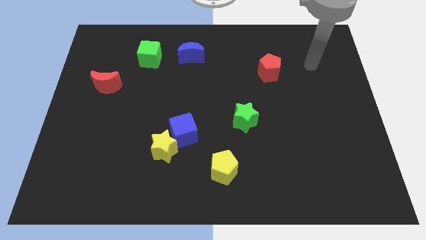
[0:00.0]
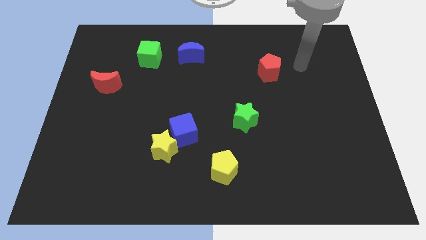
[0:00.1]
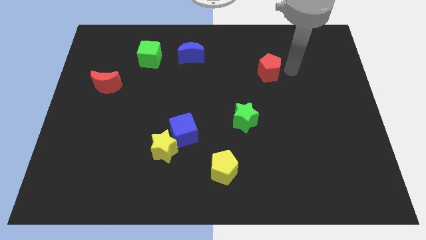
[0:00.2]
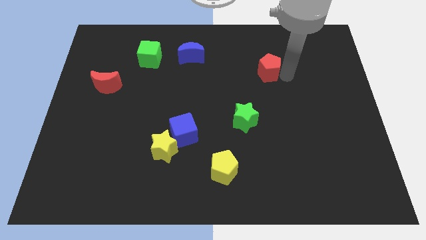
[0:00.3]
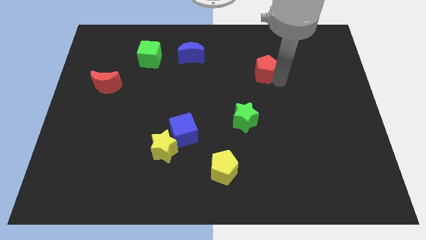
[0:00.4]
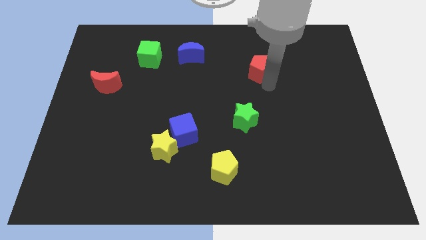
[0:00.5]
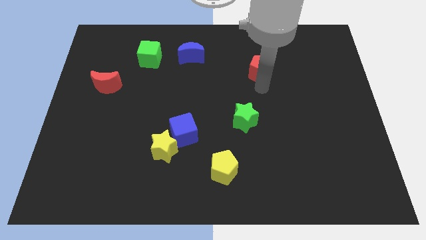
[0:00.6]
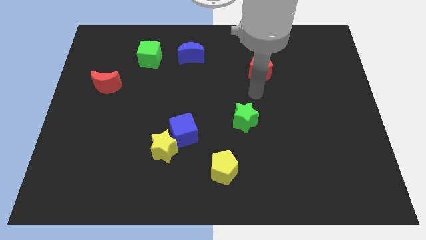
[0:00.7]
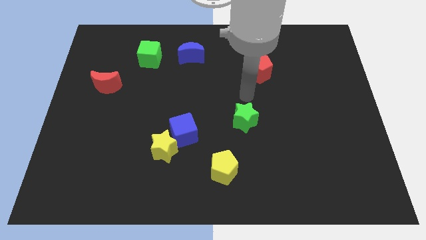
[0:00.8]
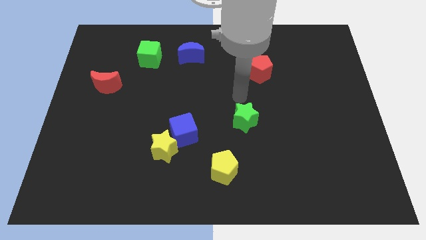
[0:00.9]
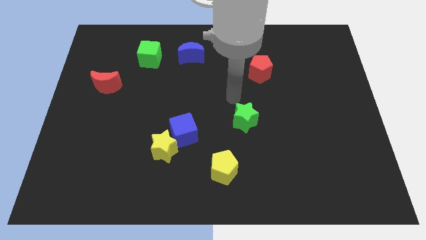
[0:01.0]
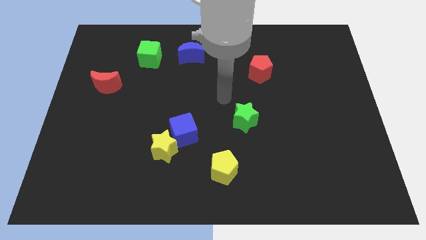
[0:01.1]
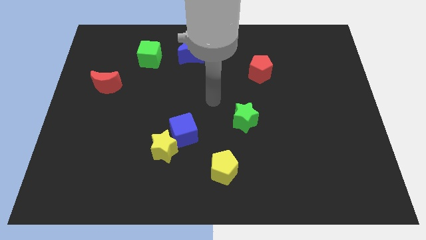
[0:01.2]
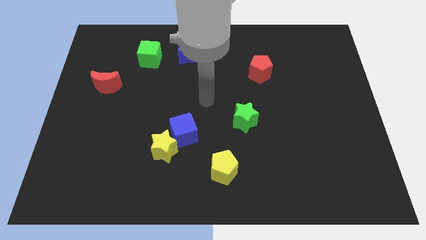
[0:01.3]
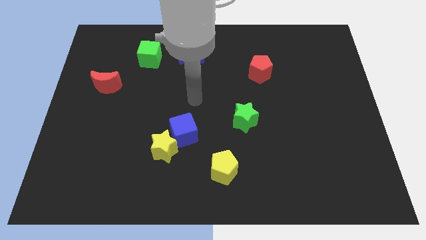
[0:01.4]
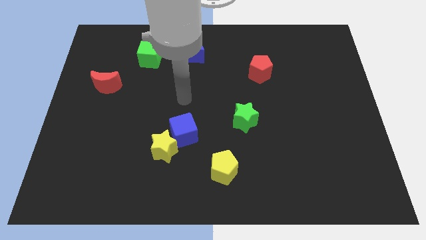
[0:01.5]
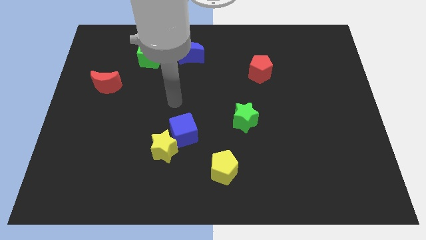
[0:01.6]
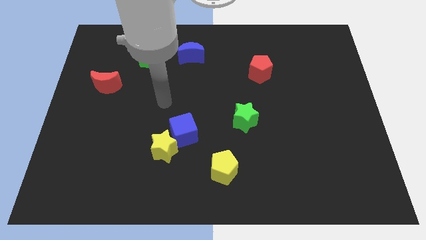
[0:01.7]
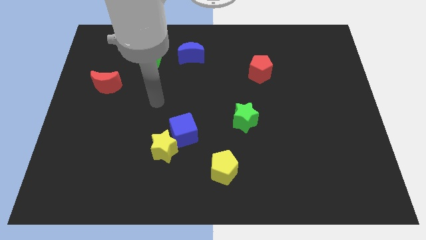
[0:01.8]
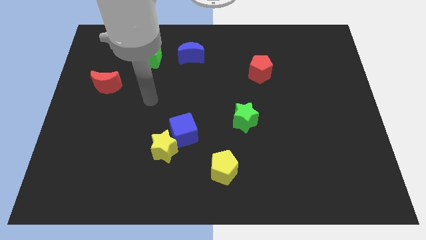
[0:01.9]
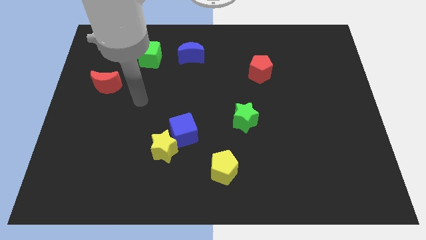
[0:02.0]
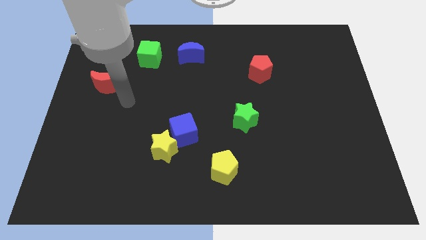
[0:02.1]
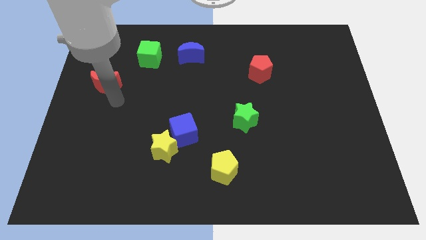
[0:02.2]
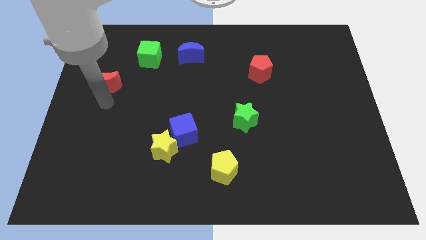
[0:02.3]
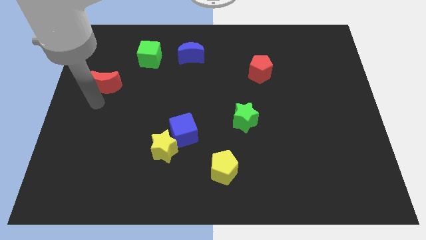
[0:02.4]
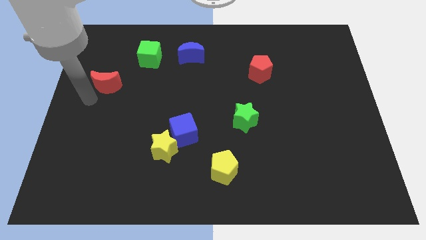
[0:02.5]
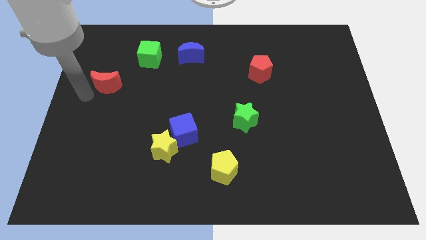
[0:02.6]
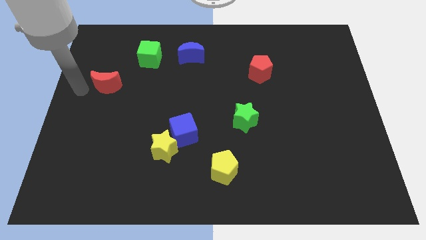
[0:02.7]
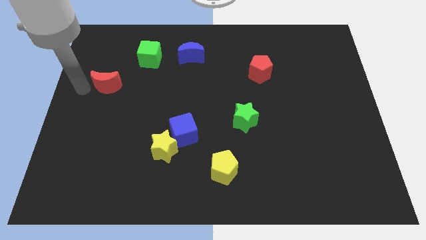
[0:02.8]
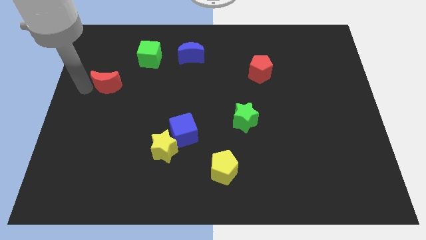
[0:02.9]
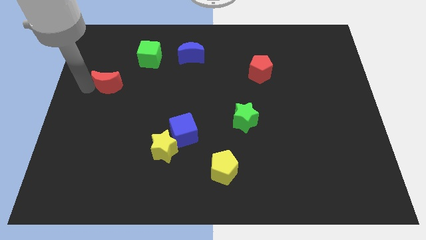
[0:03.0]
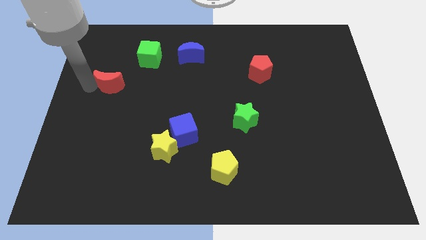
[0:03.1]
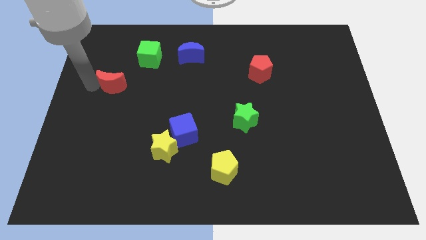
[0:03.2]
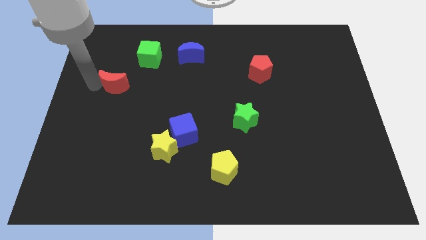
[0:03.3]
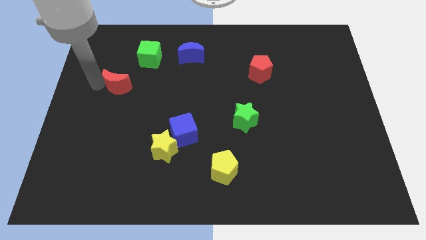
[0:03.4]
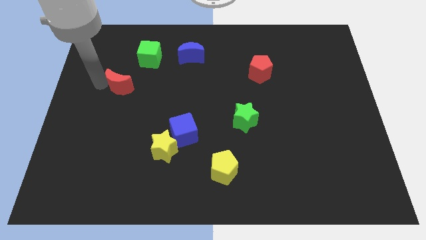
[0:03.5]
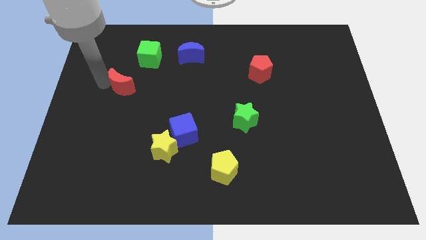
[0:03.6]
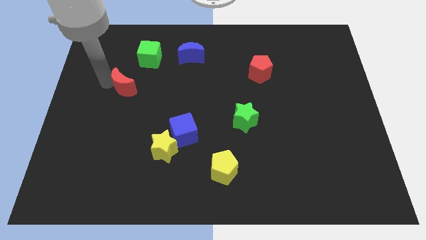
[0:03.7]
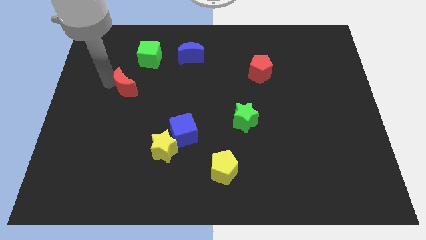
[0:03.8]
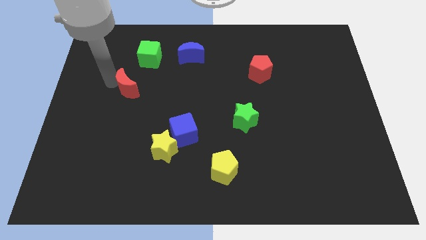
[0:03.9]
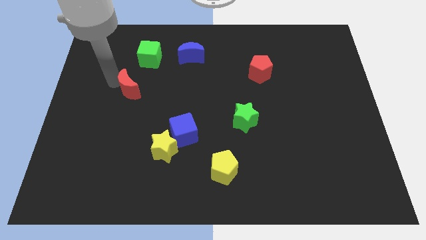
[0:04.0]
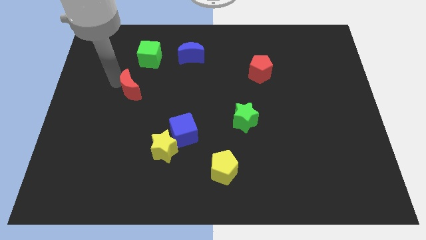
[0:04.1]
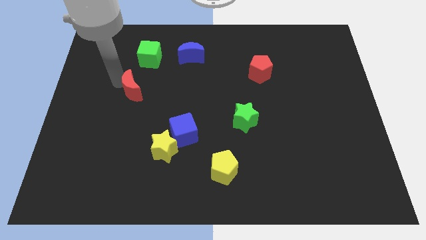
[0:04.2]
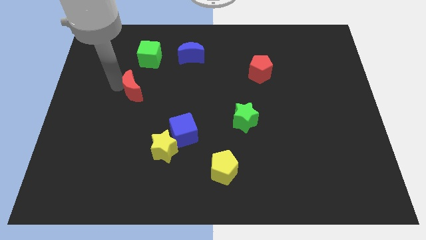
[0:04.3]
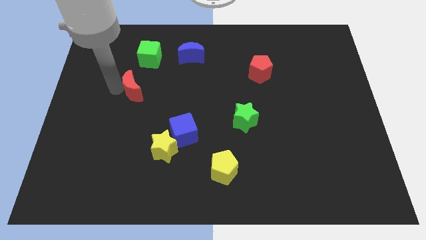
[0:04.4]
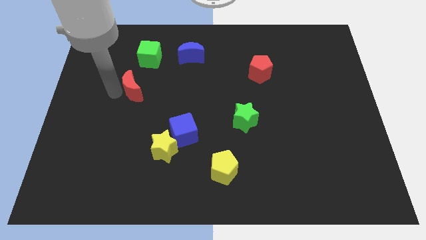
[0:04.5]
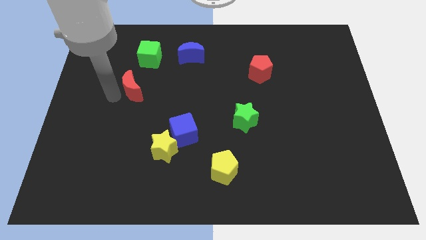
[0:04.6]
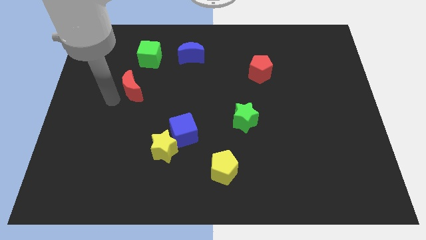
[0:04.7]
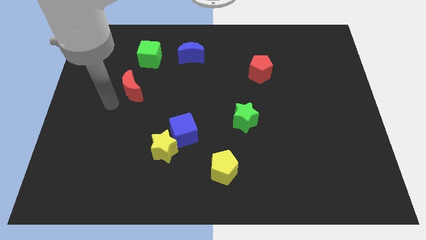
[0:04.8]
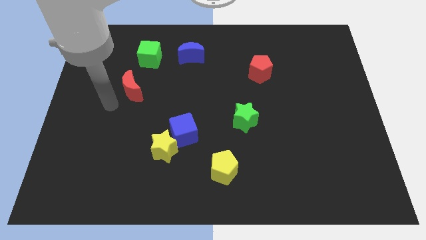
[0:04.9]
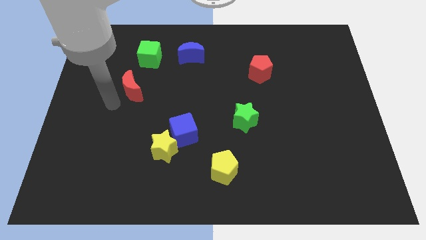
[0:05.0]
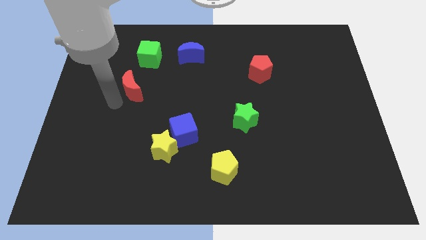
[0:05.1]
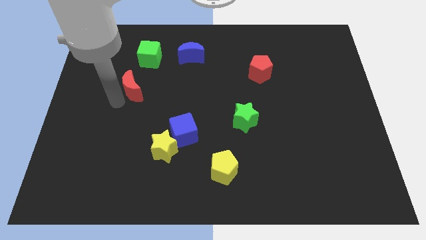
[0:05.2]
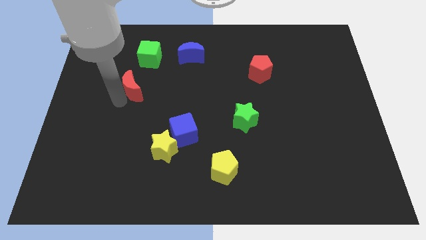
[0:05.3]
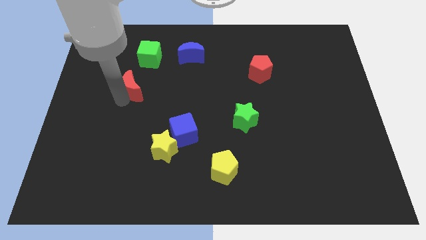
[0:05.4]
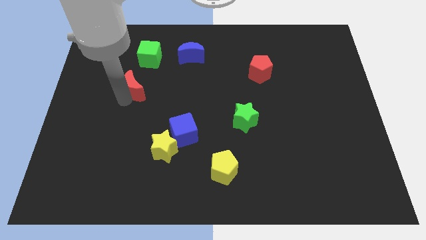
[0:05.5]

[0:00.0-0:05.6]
slide the red moon a little to the right

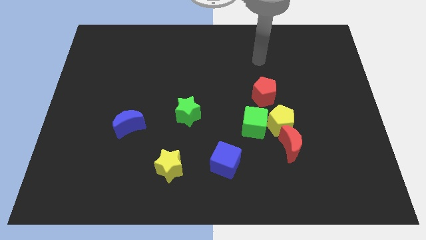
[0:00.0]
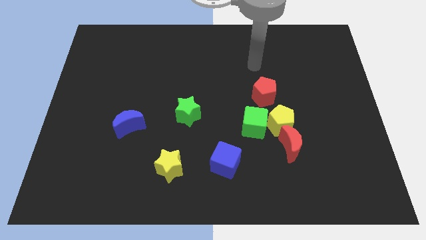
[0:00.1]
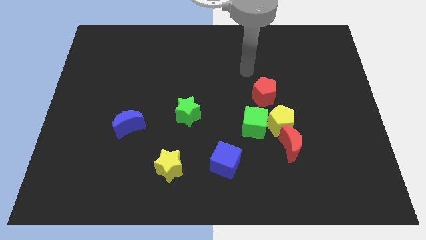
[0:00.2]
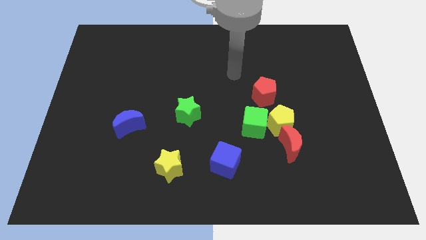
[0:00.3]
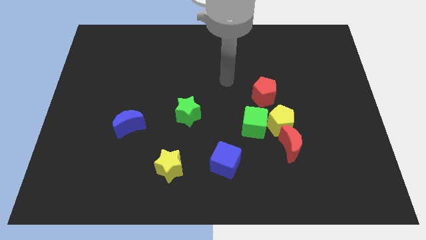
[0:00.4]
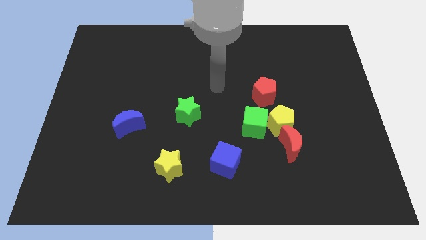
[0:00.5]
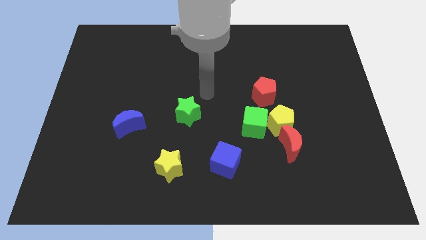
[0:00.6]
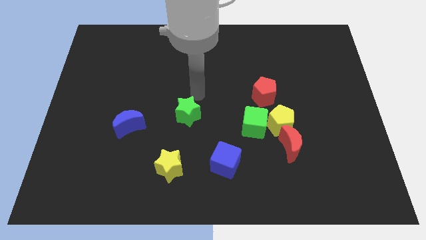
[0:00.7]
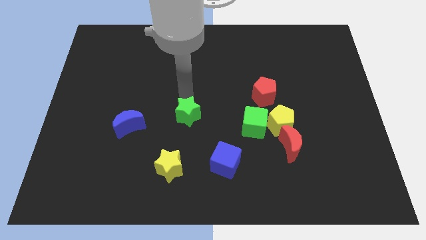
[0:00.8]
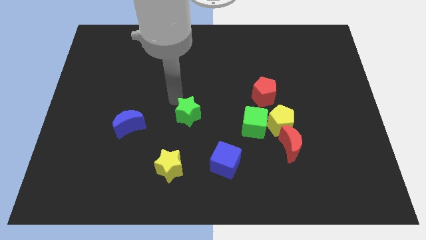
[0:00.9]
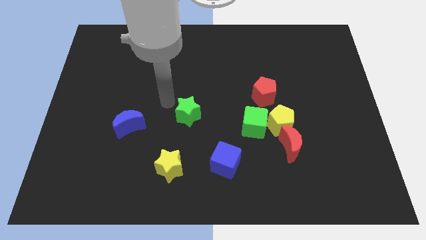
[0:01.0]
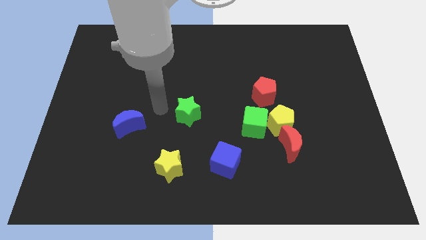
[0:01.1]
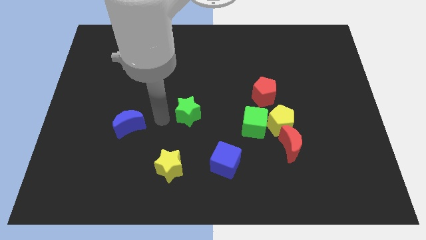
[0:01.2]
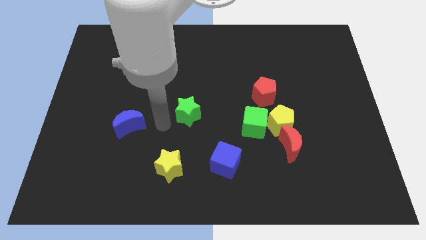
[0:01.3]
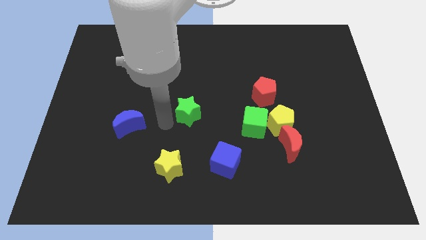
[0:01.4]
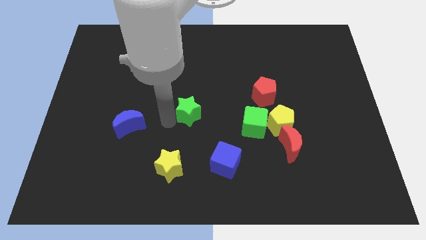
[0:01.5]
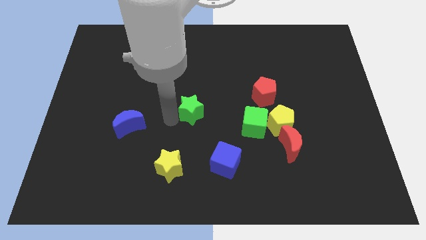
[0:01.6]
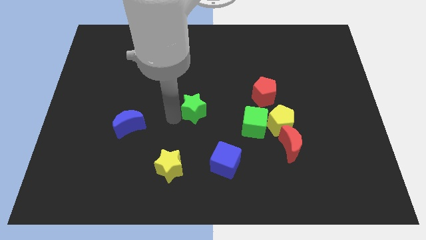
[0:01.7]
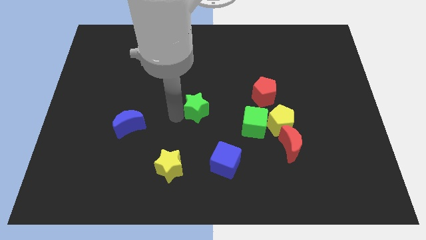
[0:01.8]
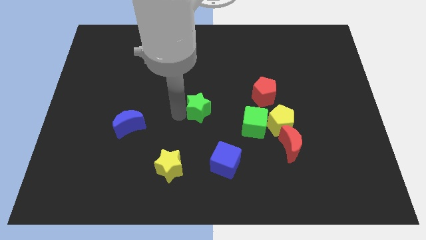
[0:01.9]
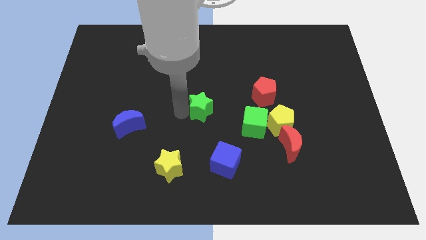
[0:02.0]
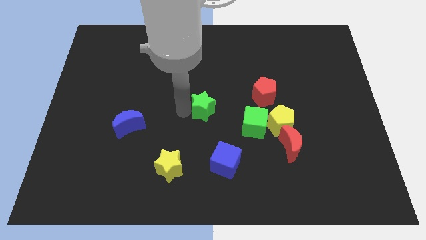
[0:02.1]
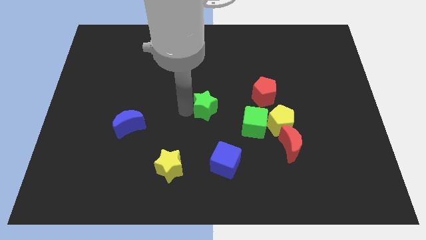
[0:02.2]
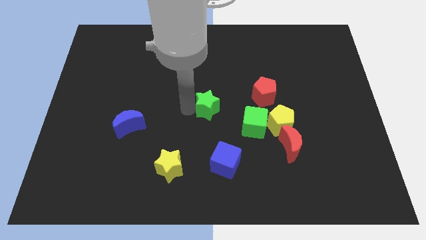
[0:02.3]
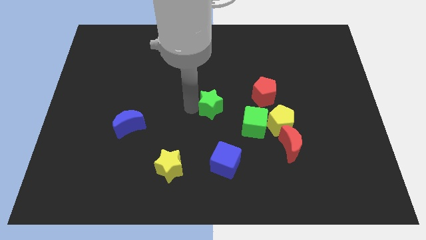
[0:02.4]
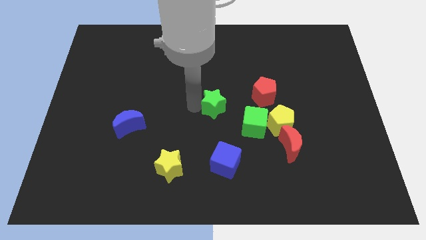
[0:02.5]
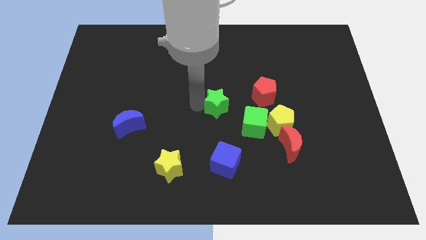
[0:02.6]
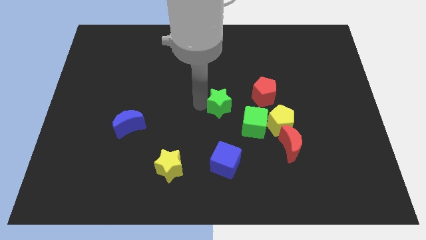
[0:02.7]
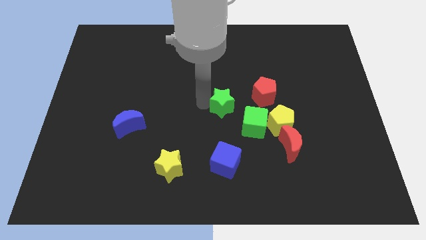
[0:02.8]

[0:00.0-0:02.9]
move the green star a little bit diagonally upwards and right
